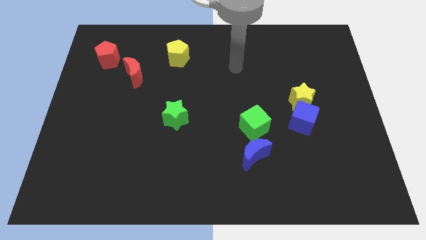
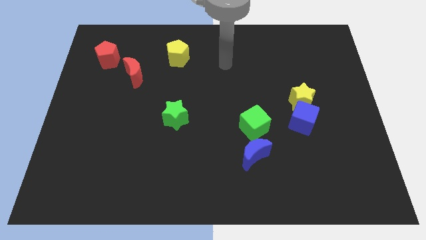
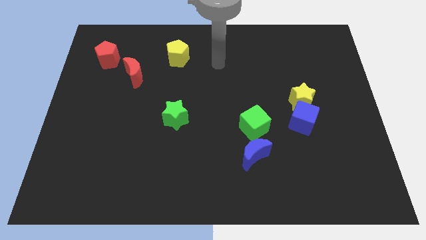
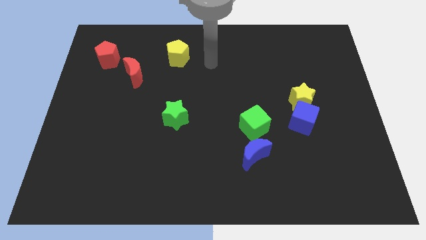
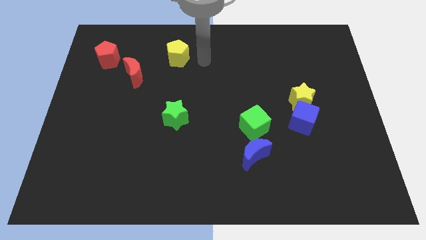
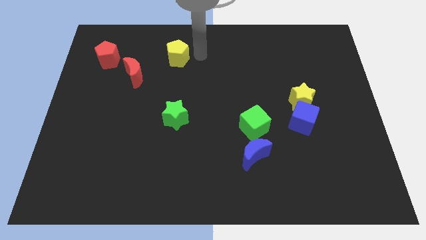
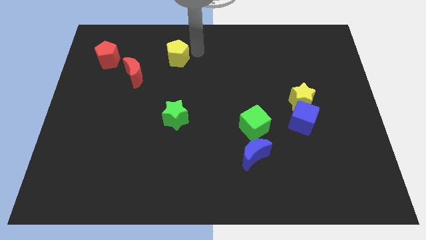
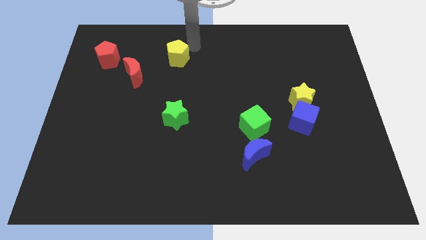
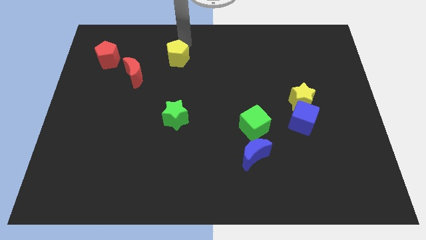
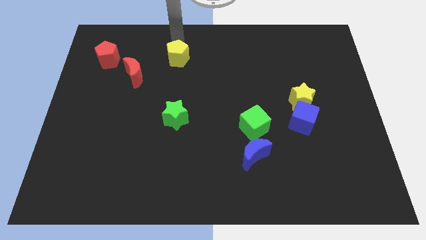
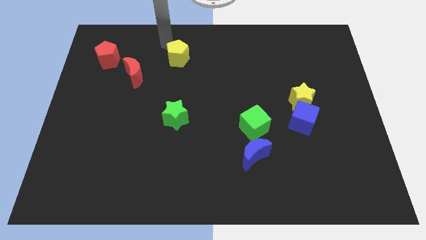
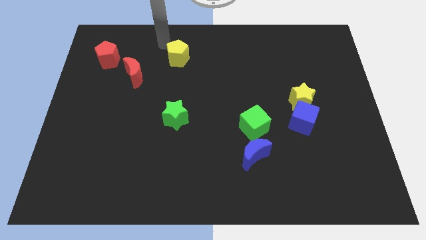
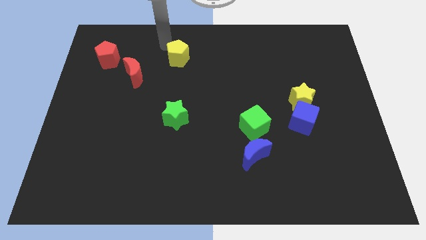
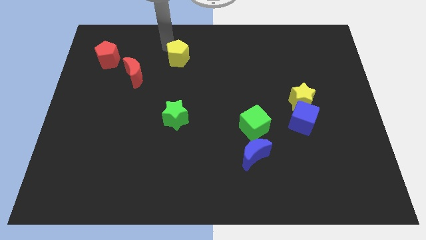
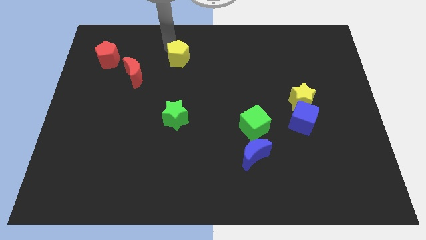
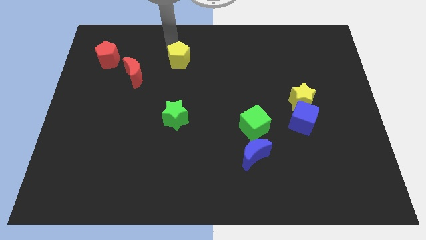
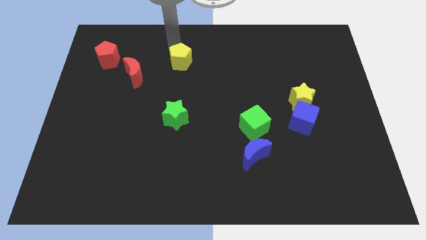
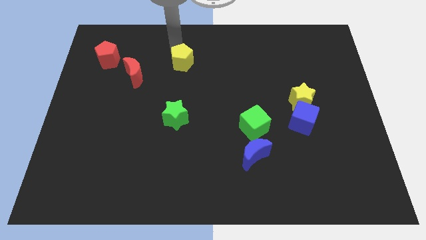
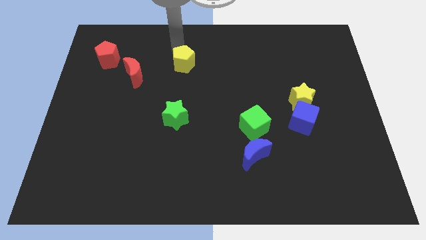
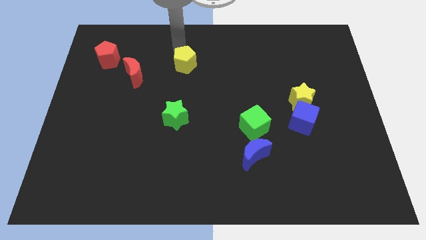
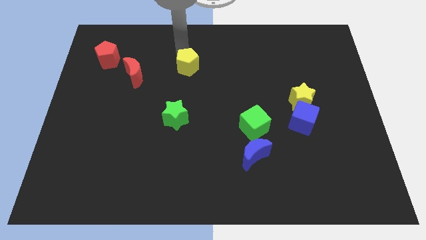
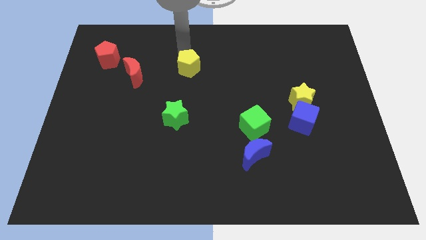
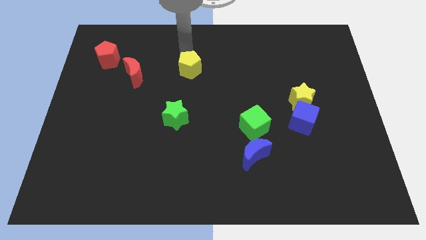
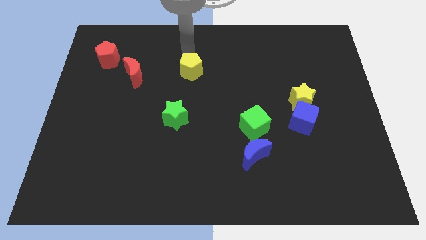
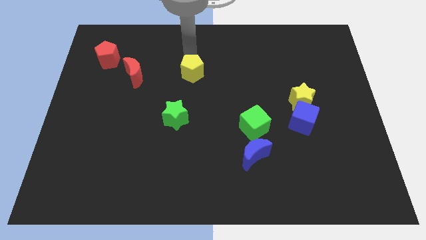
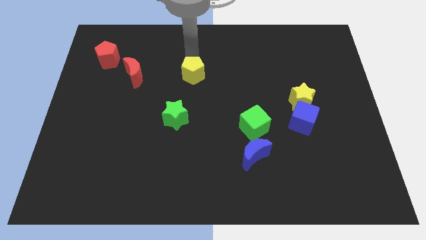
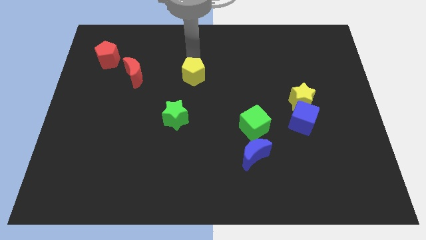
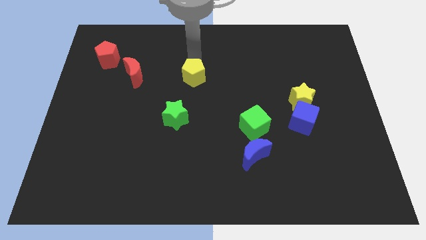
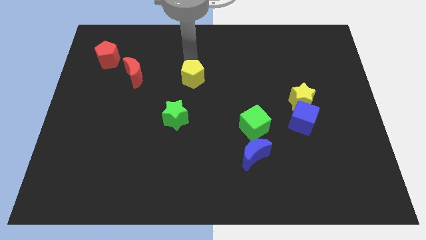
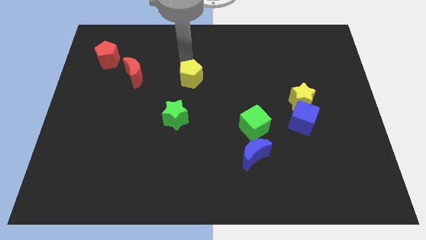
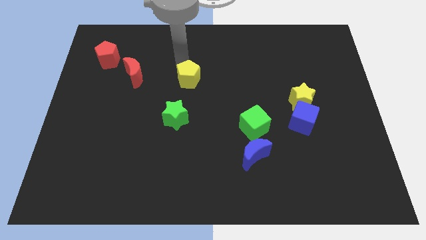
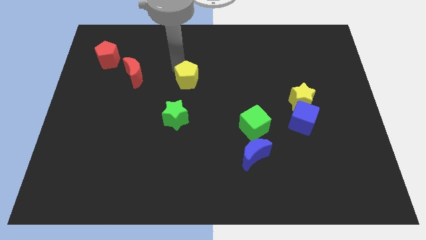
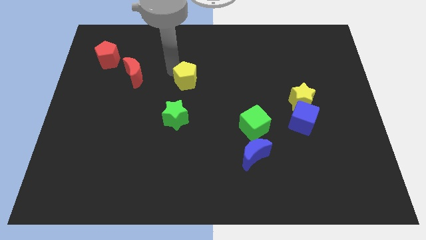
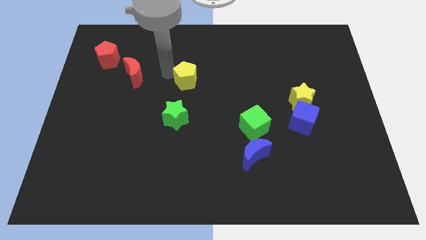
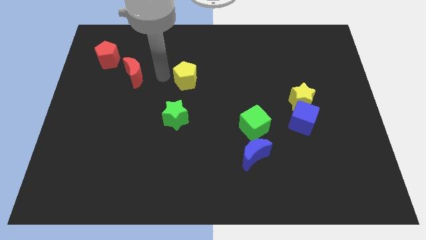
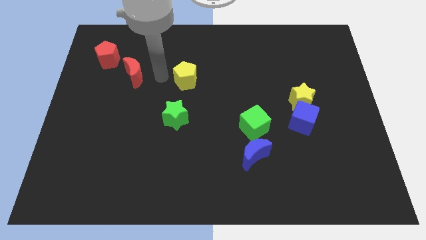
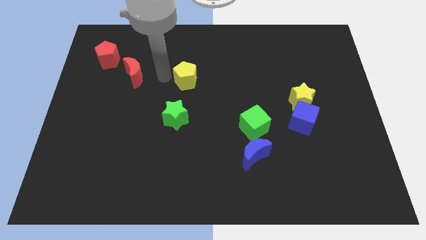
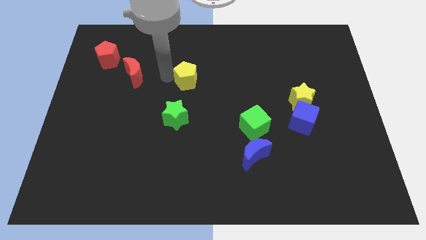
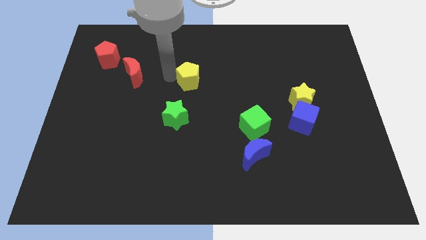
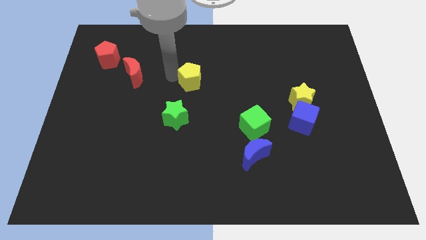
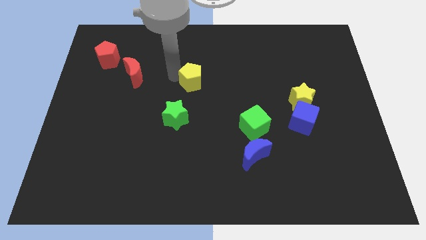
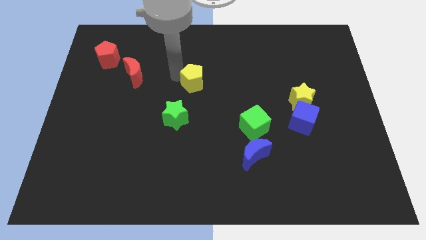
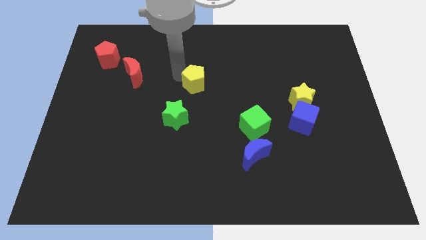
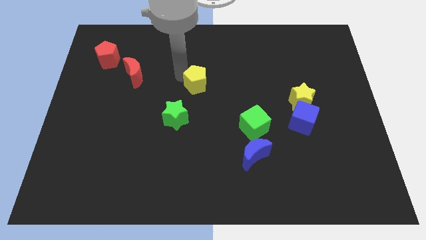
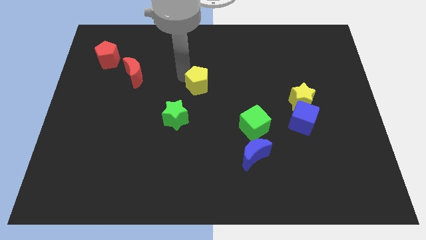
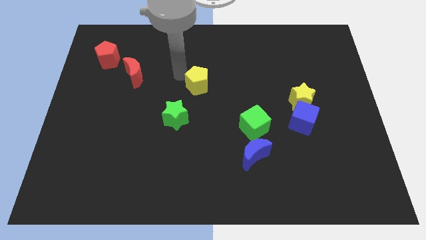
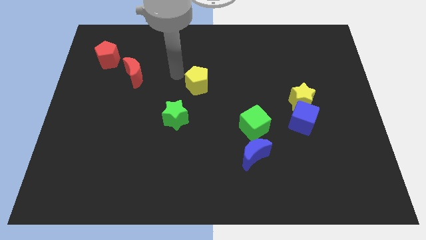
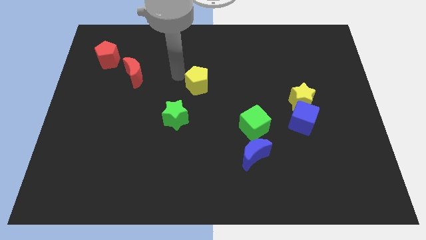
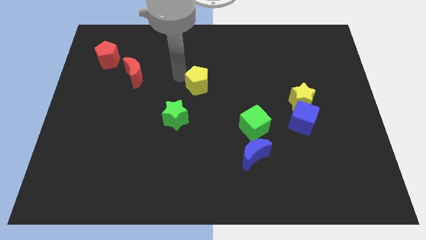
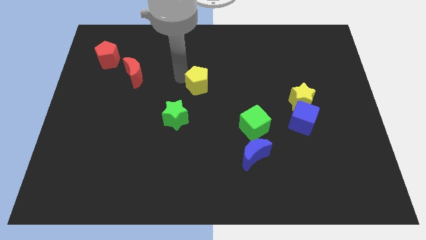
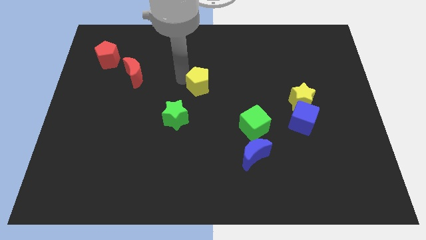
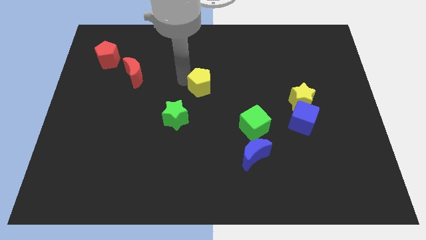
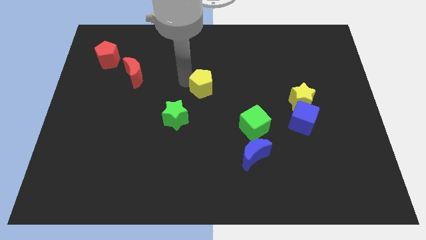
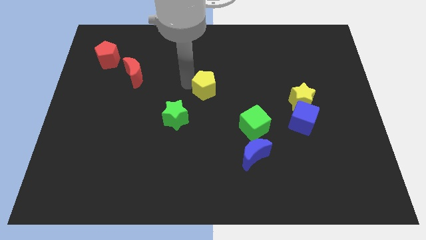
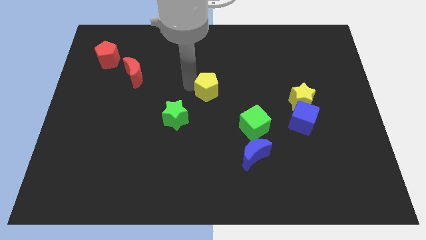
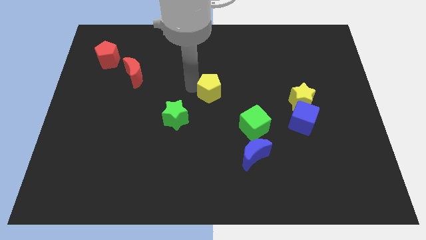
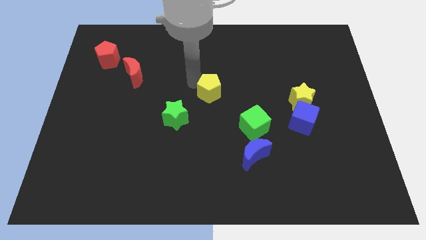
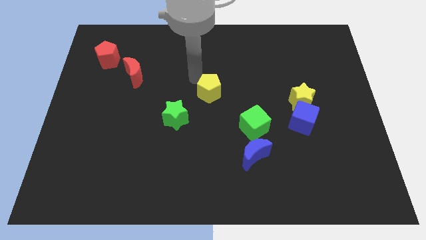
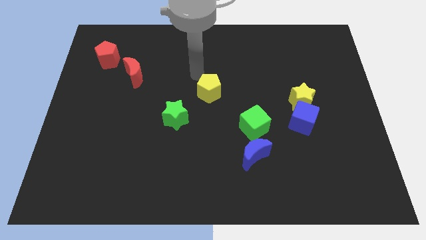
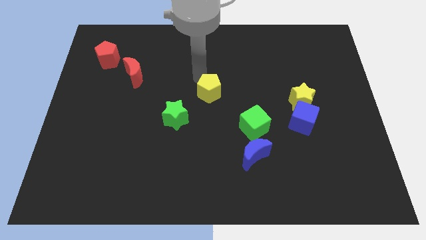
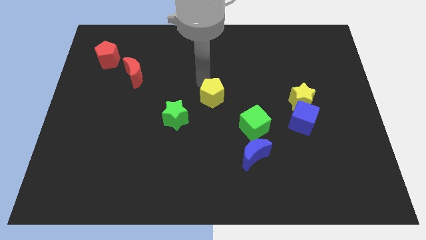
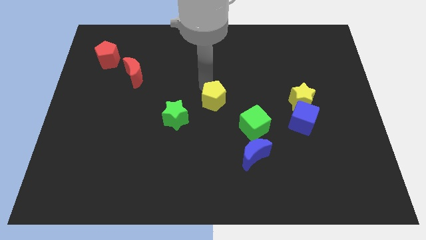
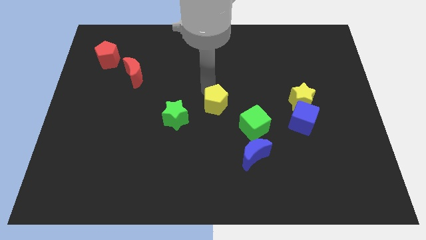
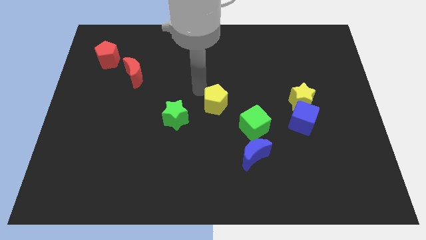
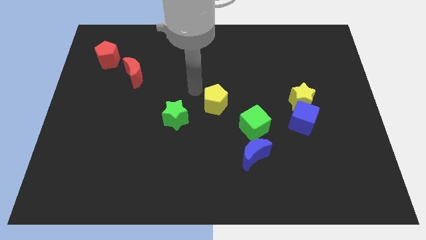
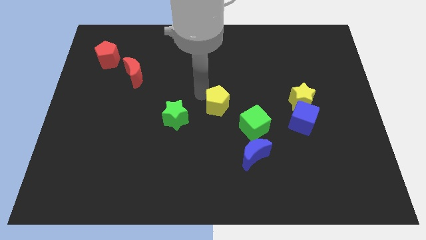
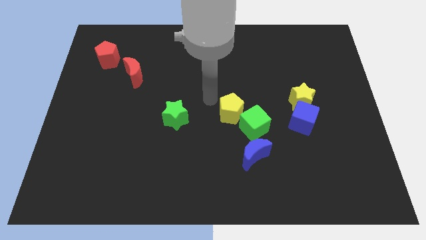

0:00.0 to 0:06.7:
put the yellow pentagon to the green cube

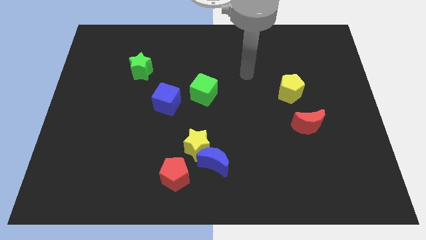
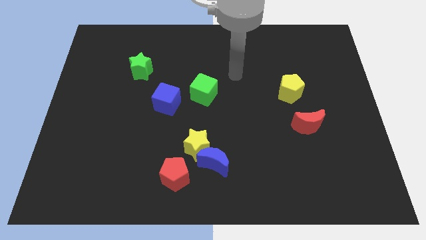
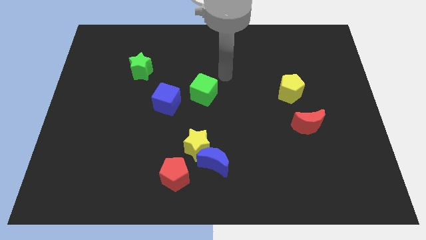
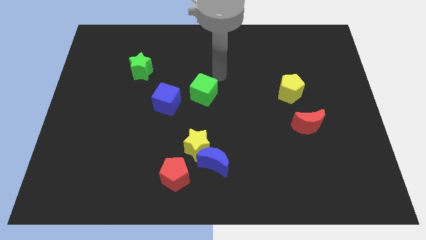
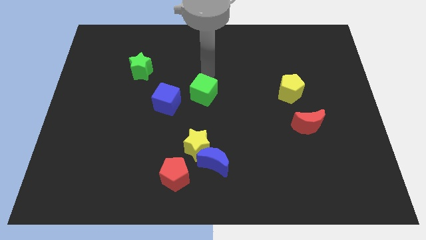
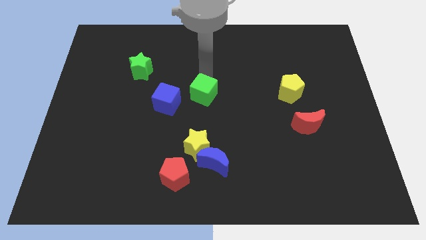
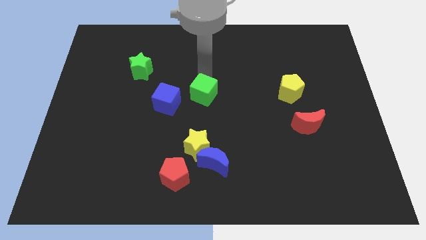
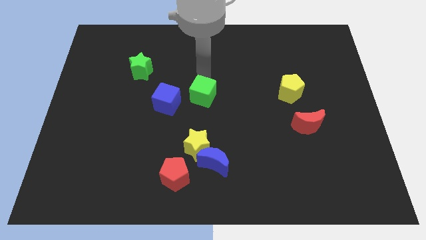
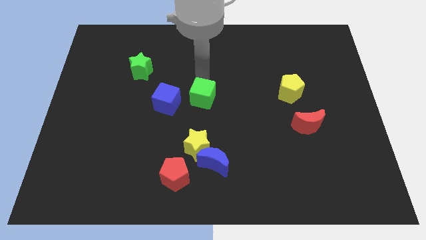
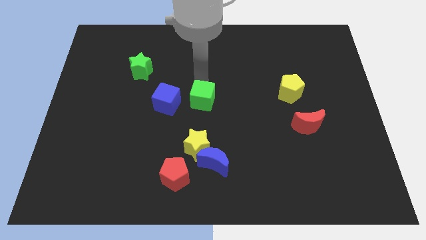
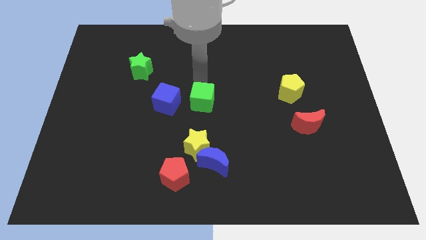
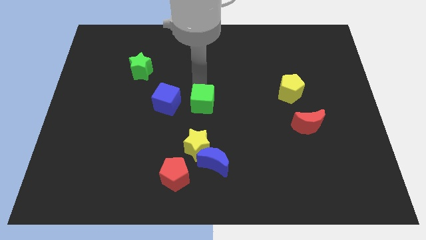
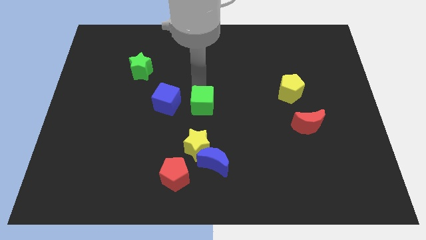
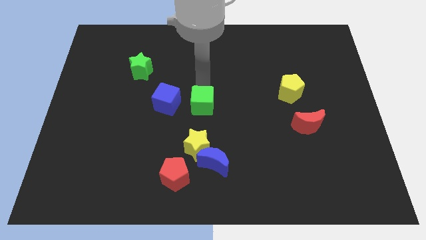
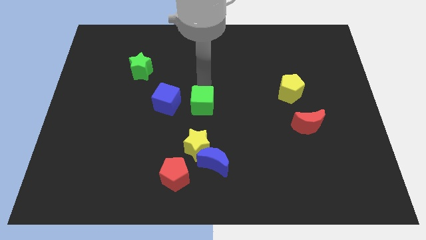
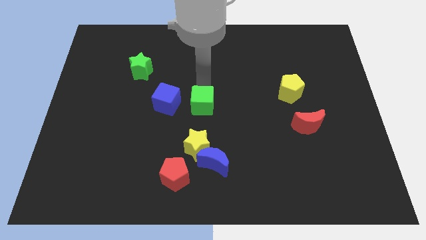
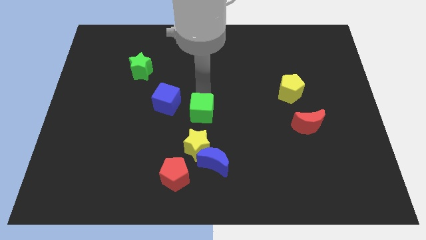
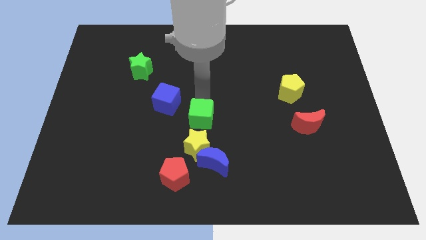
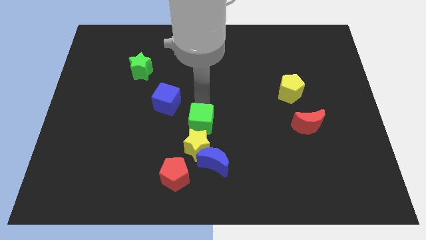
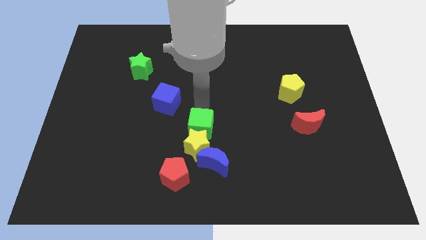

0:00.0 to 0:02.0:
move the green cube next to the yellow star
